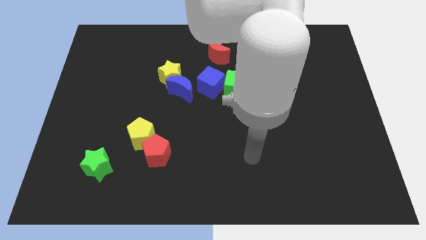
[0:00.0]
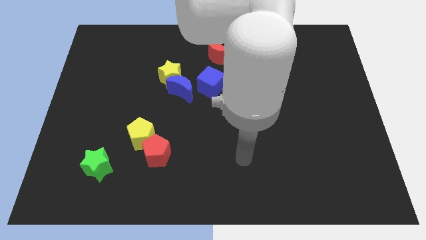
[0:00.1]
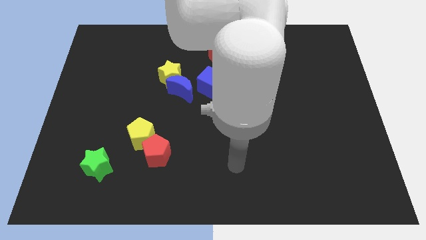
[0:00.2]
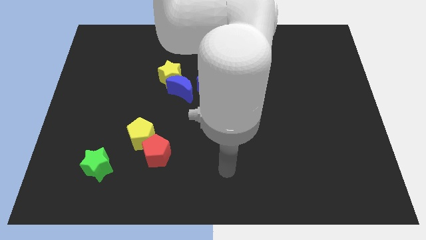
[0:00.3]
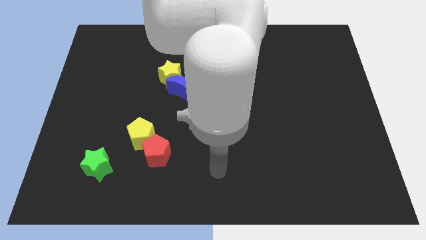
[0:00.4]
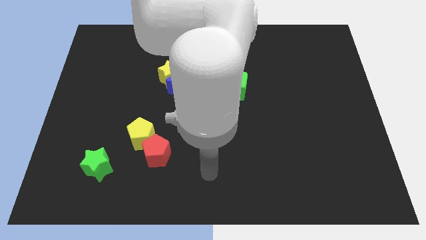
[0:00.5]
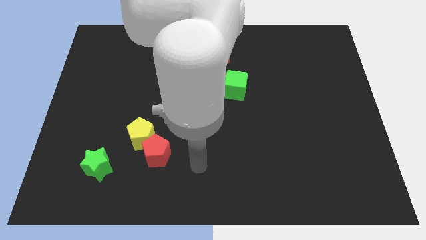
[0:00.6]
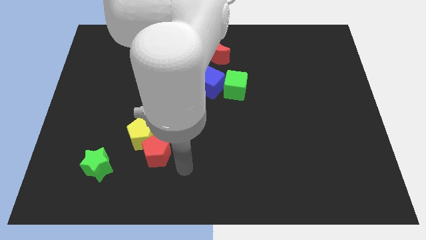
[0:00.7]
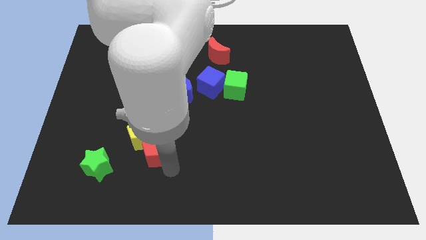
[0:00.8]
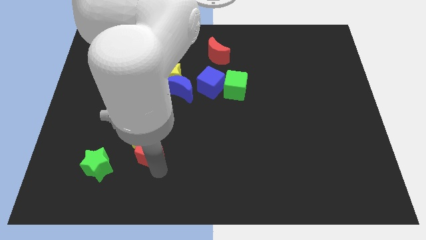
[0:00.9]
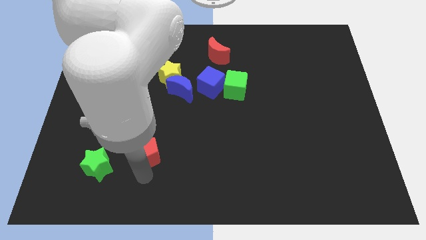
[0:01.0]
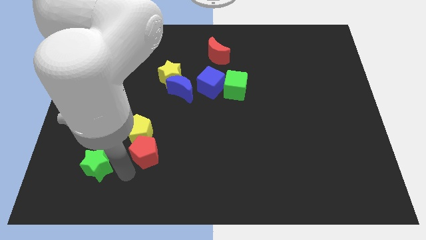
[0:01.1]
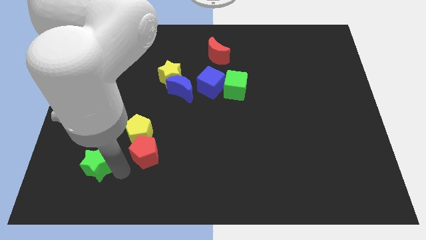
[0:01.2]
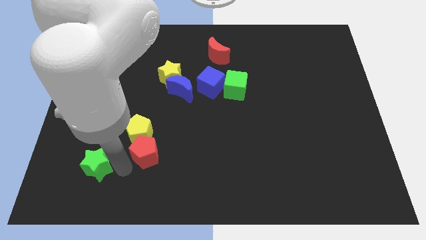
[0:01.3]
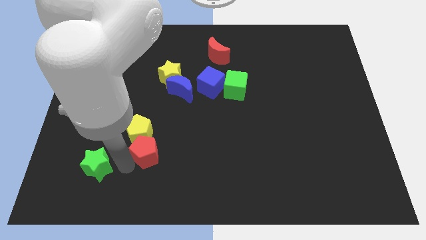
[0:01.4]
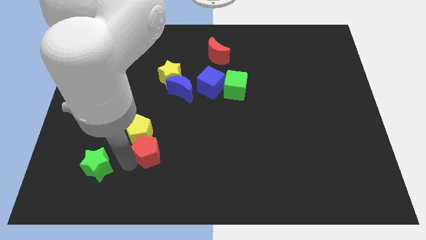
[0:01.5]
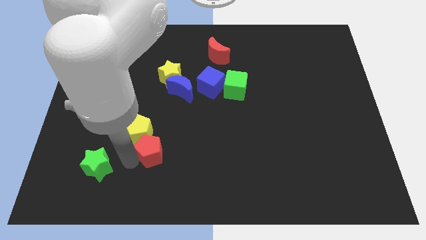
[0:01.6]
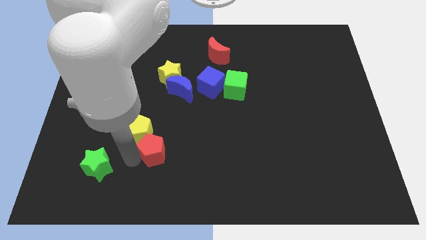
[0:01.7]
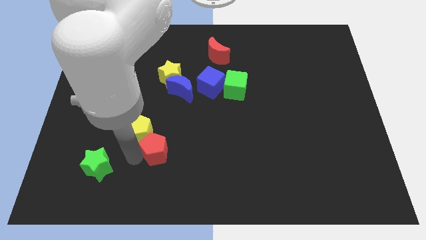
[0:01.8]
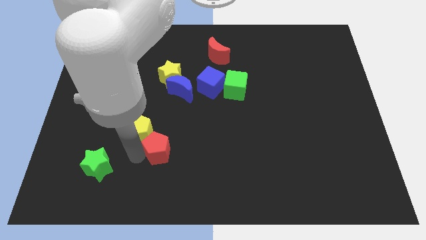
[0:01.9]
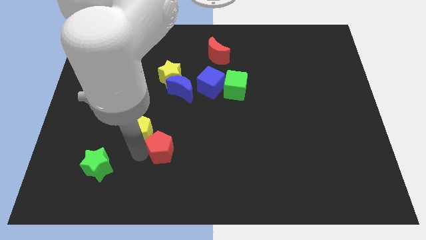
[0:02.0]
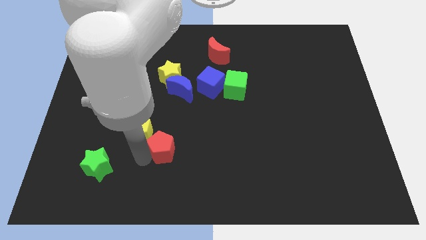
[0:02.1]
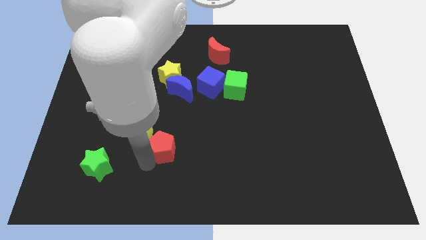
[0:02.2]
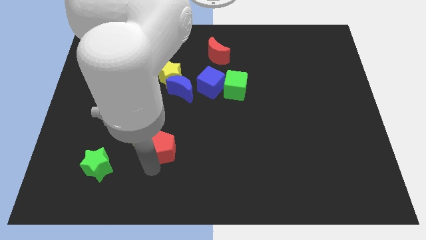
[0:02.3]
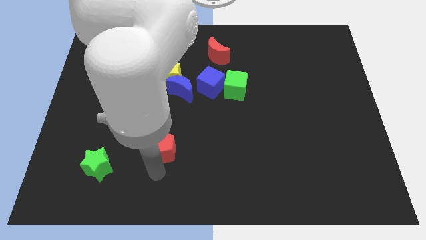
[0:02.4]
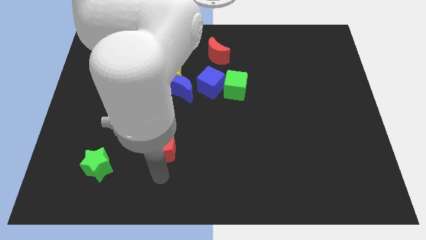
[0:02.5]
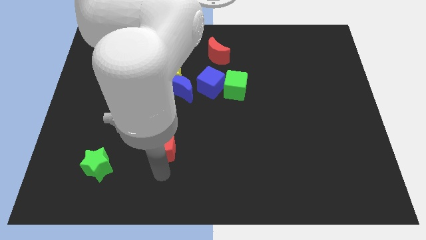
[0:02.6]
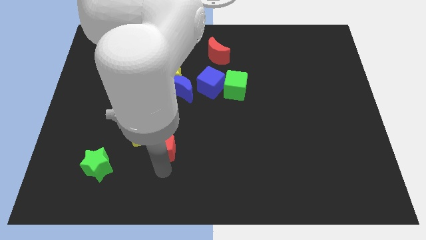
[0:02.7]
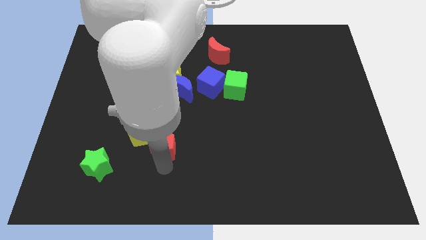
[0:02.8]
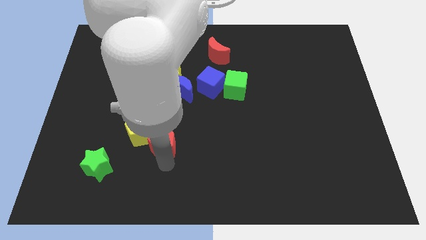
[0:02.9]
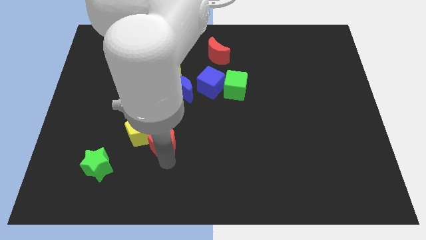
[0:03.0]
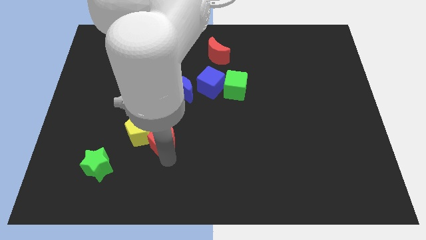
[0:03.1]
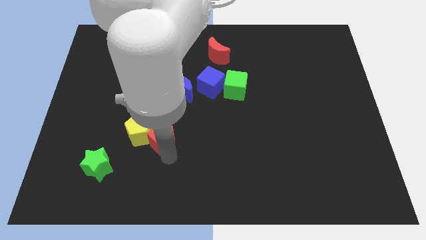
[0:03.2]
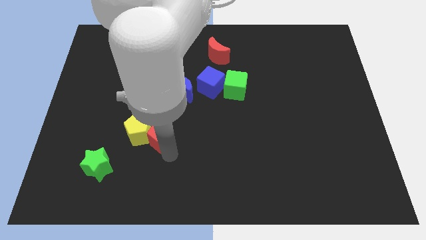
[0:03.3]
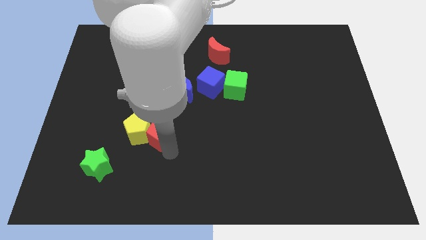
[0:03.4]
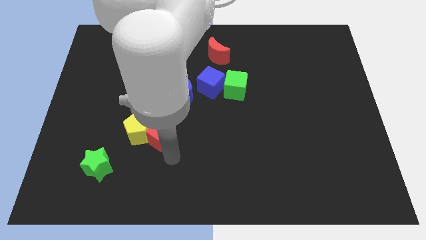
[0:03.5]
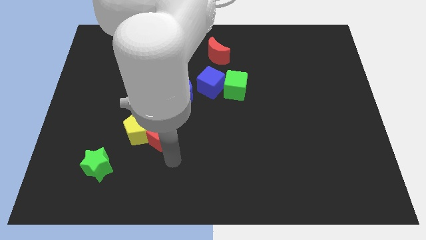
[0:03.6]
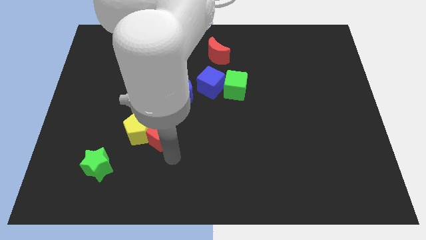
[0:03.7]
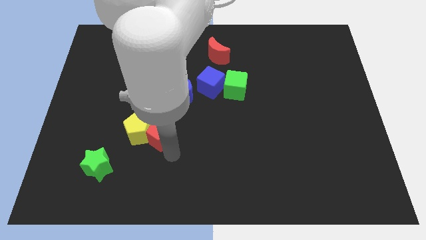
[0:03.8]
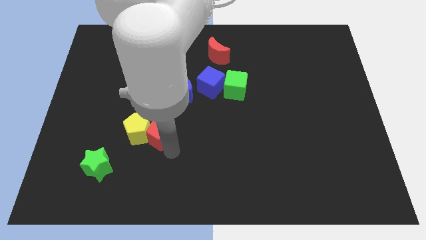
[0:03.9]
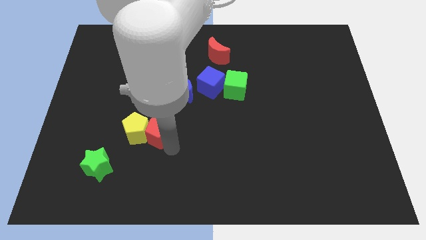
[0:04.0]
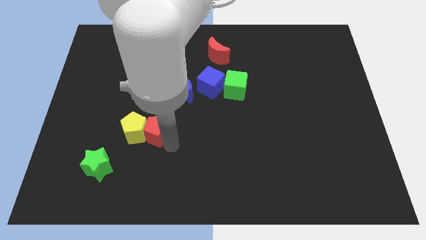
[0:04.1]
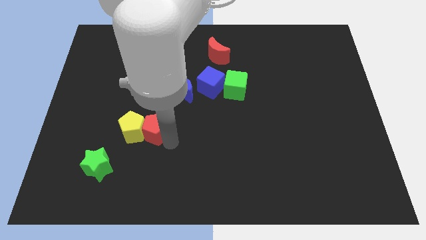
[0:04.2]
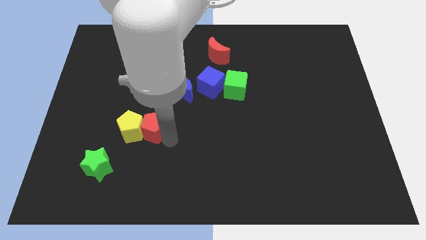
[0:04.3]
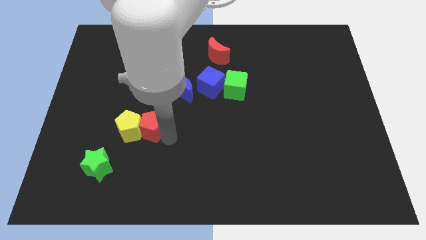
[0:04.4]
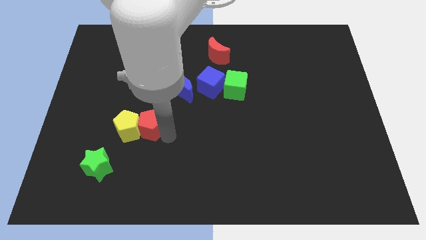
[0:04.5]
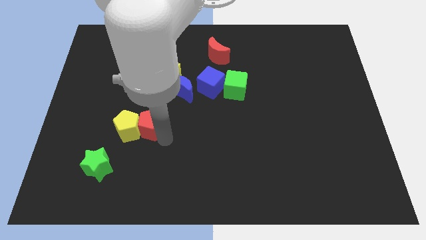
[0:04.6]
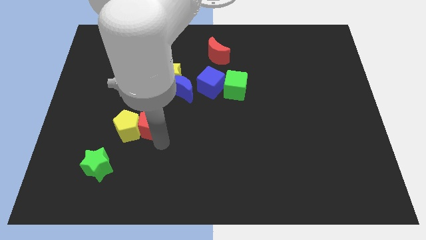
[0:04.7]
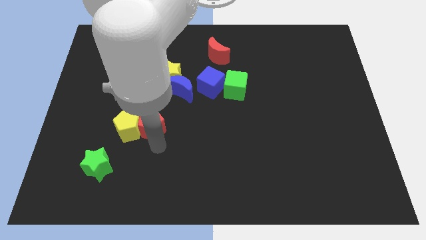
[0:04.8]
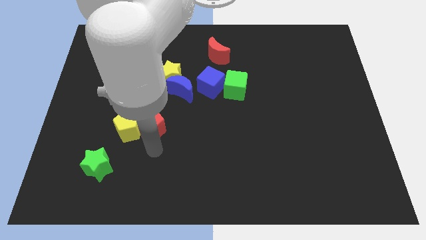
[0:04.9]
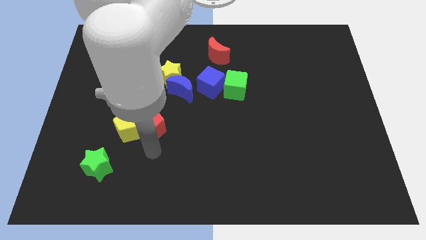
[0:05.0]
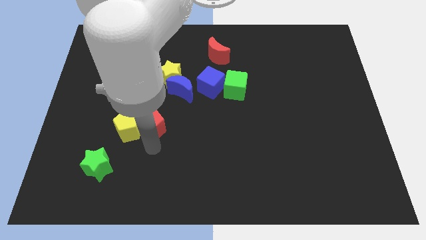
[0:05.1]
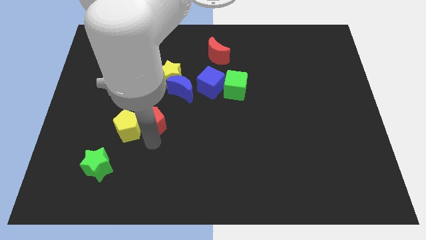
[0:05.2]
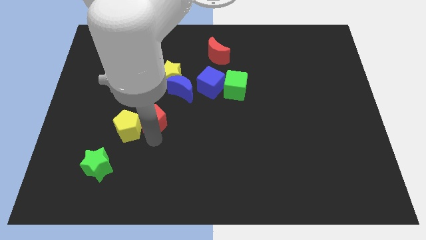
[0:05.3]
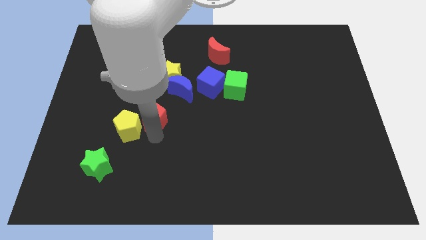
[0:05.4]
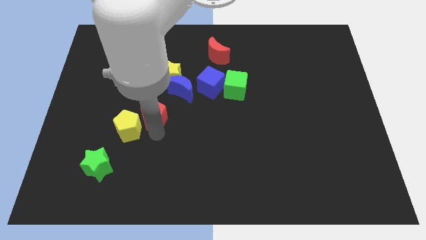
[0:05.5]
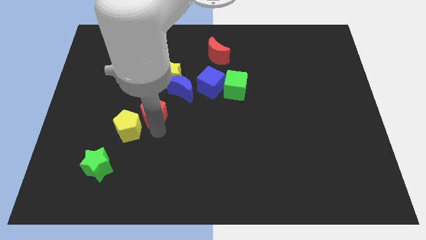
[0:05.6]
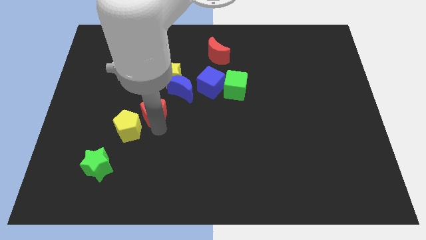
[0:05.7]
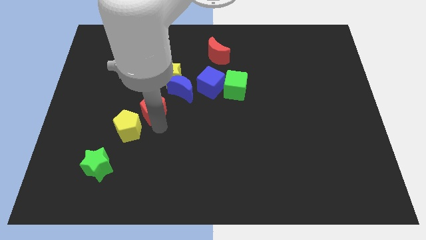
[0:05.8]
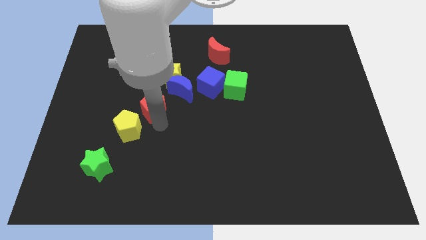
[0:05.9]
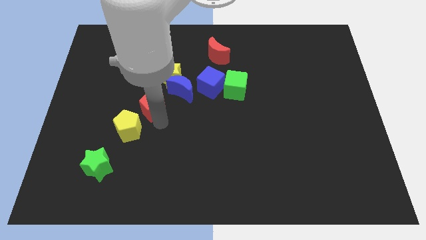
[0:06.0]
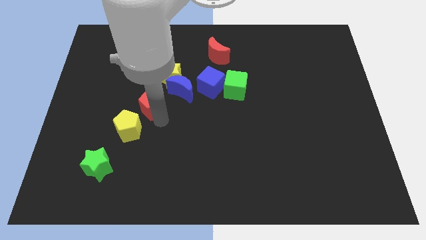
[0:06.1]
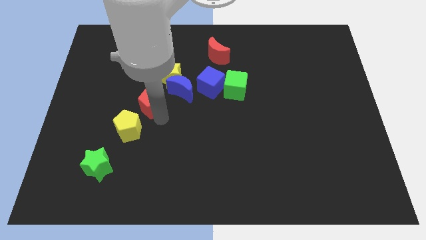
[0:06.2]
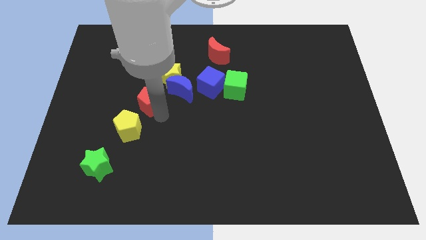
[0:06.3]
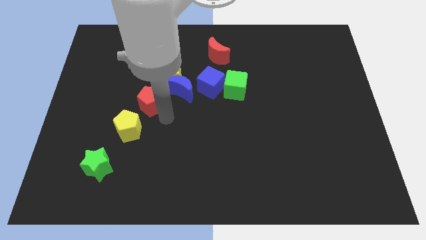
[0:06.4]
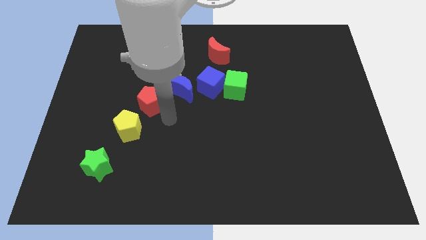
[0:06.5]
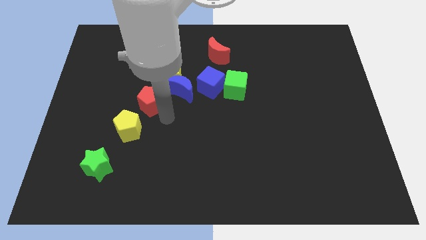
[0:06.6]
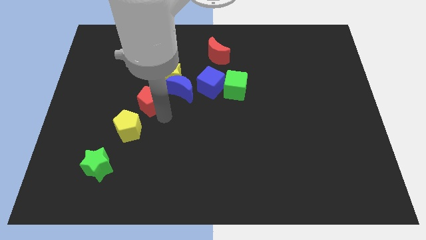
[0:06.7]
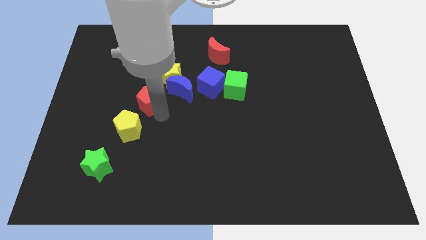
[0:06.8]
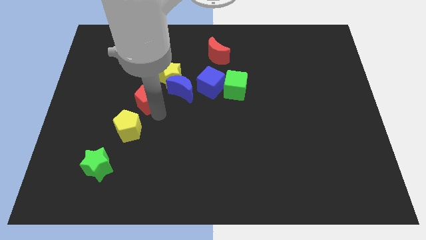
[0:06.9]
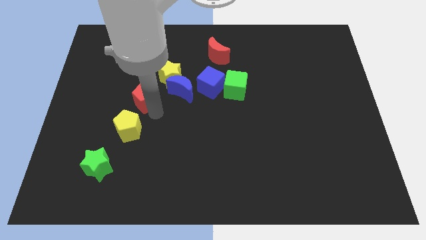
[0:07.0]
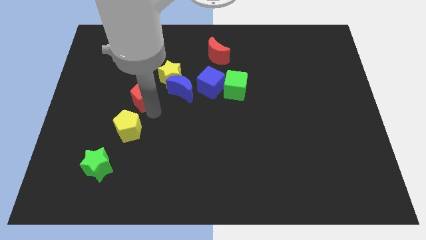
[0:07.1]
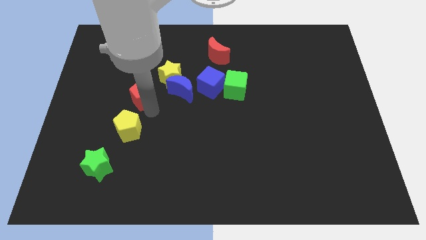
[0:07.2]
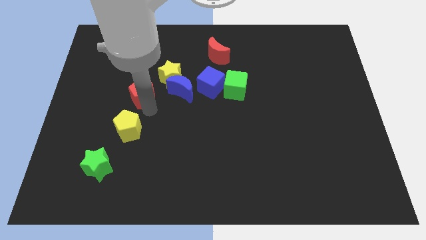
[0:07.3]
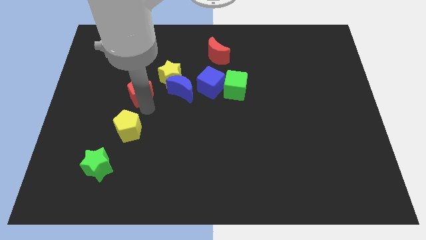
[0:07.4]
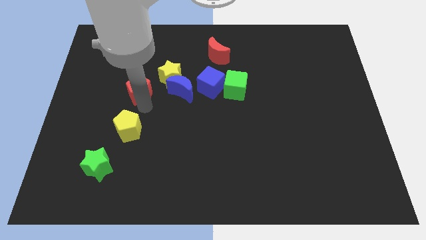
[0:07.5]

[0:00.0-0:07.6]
move the red pentagon just left of the yellow star
